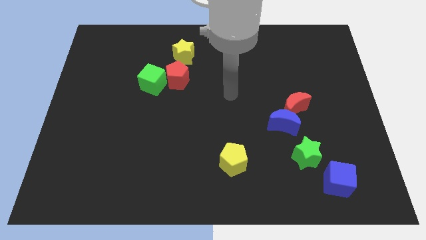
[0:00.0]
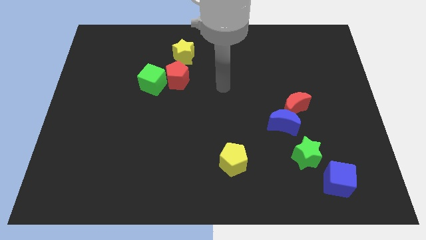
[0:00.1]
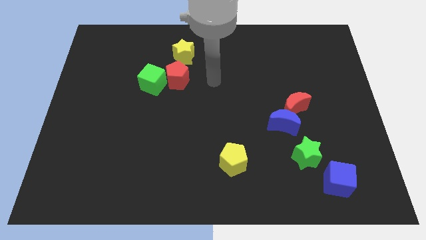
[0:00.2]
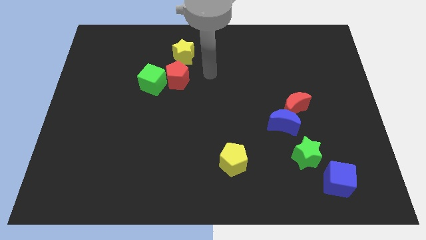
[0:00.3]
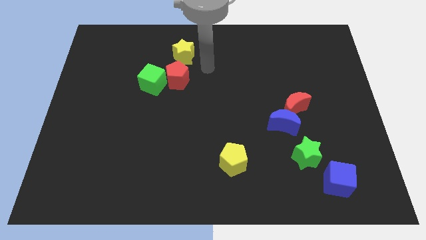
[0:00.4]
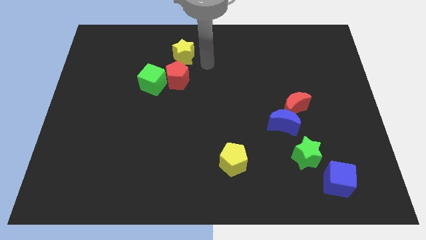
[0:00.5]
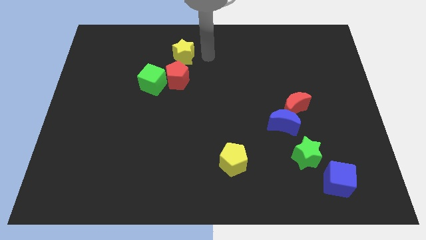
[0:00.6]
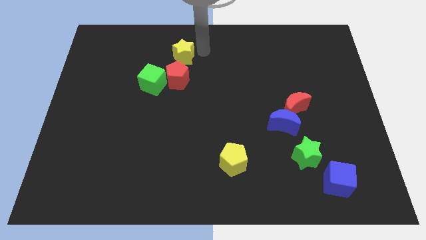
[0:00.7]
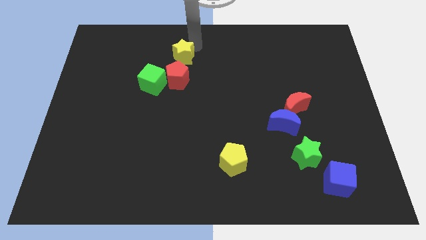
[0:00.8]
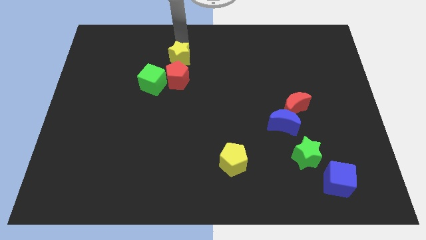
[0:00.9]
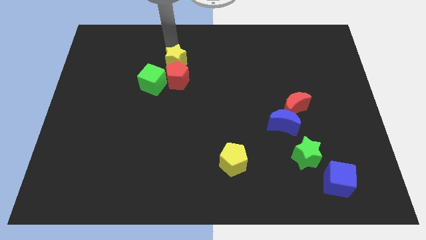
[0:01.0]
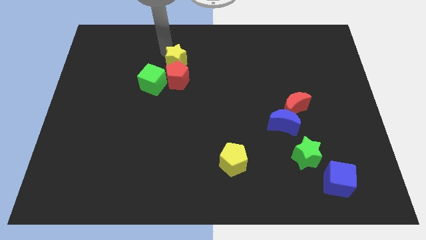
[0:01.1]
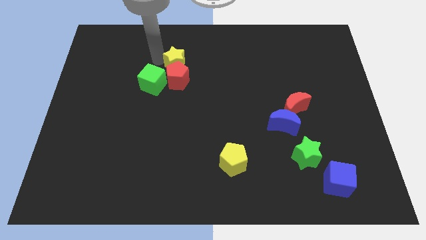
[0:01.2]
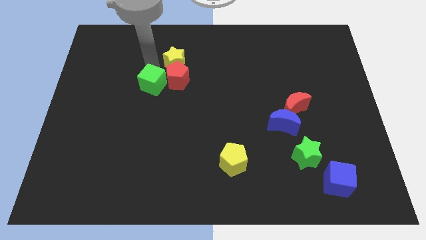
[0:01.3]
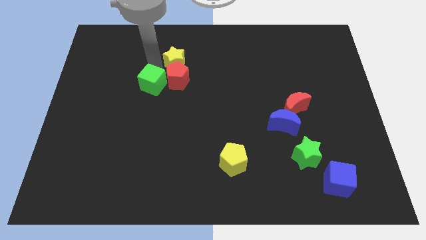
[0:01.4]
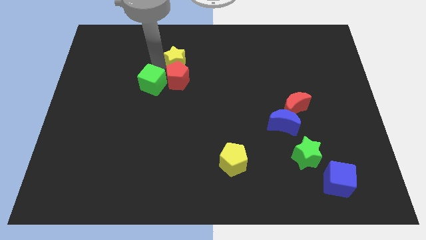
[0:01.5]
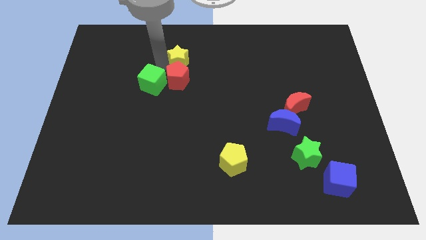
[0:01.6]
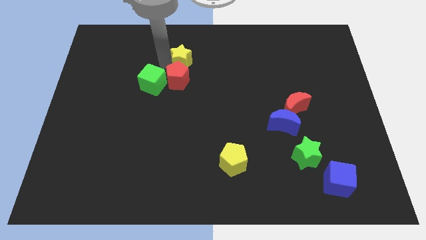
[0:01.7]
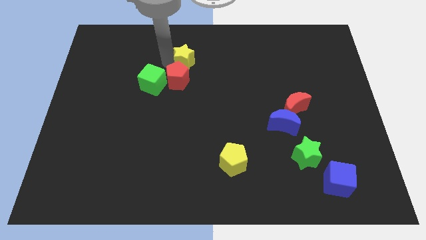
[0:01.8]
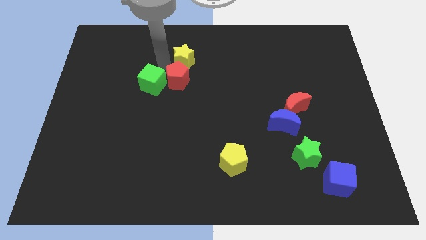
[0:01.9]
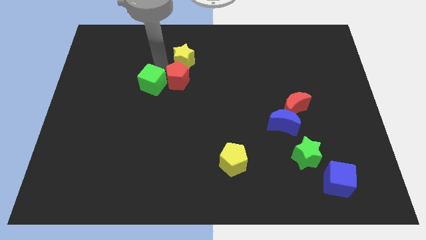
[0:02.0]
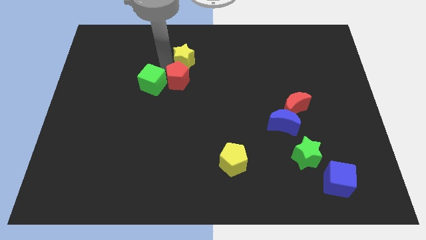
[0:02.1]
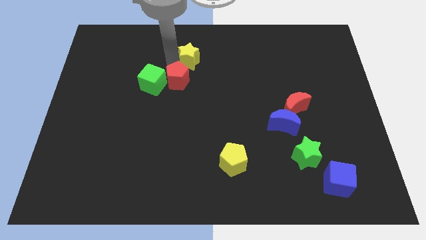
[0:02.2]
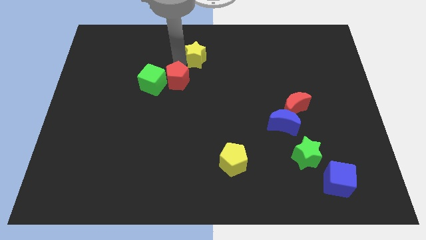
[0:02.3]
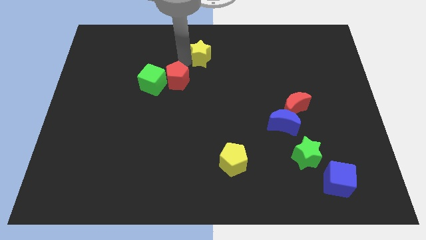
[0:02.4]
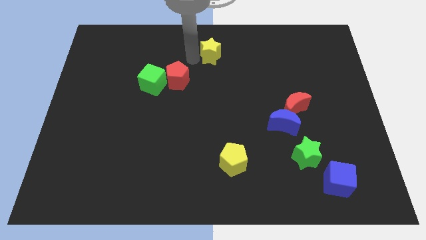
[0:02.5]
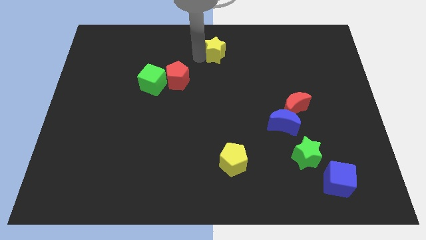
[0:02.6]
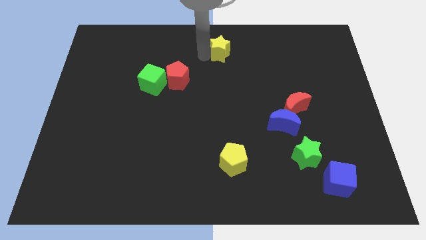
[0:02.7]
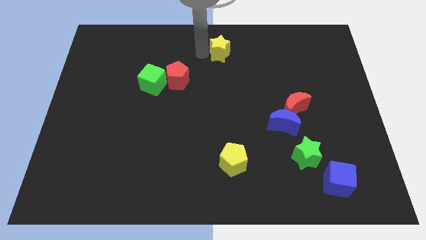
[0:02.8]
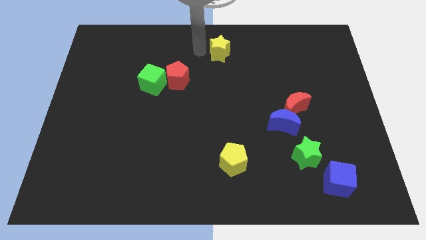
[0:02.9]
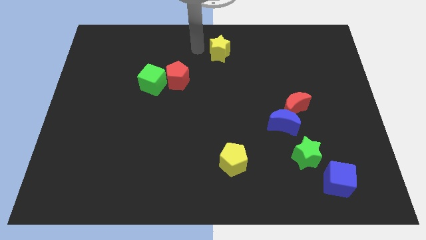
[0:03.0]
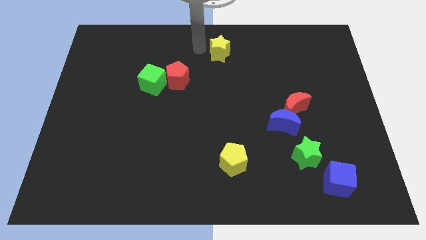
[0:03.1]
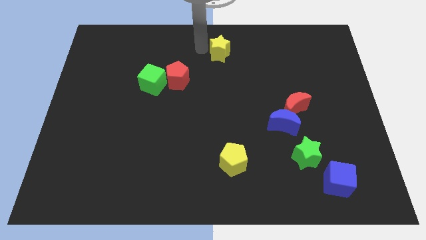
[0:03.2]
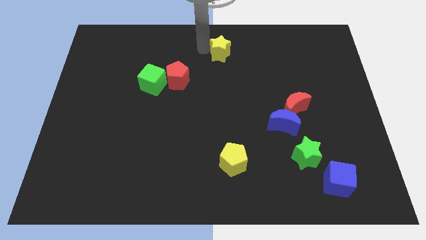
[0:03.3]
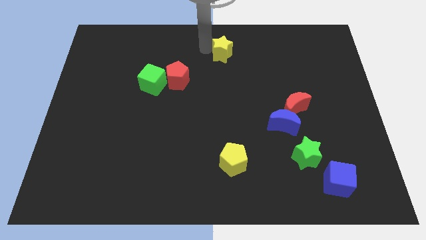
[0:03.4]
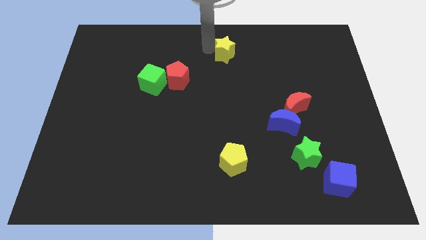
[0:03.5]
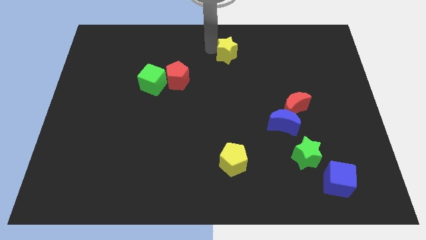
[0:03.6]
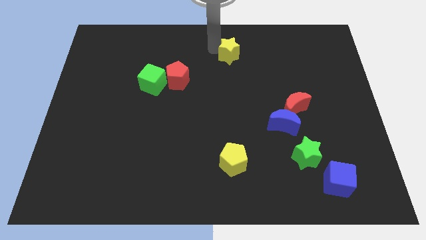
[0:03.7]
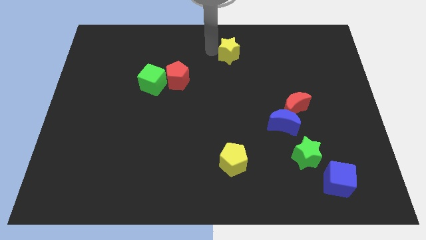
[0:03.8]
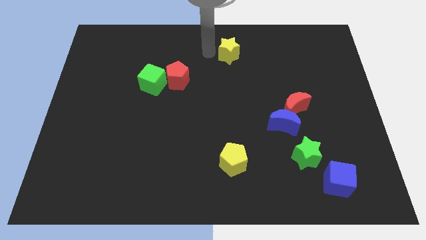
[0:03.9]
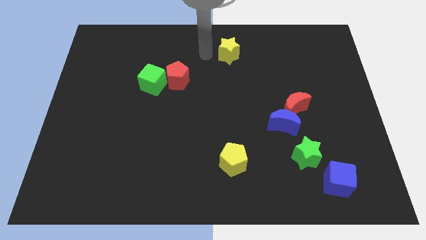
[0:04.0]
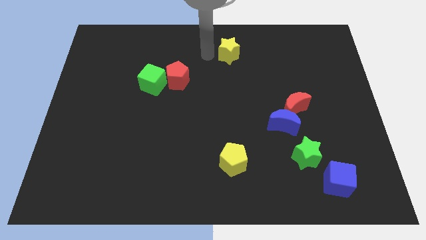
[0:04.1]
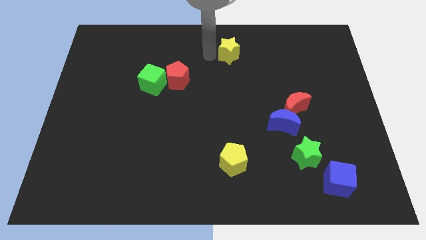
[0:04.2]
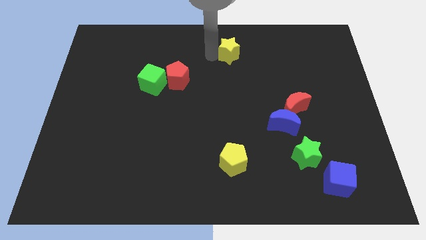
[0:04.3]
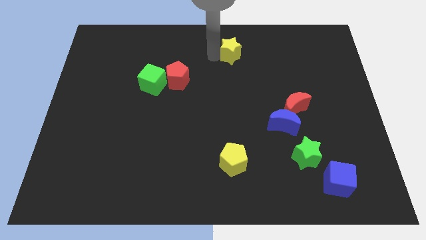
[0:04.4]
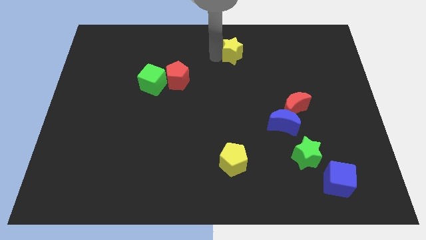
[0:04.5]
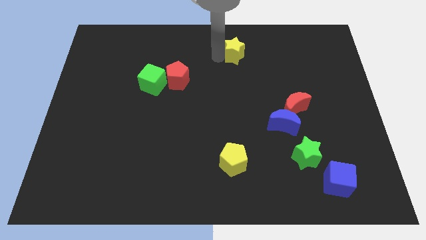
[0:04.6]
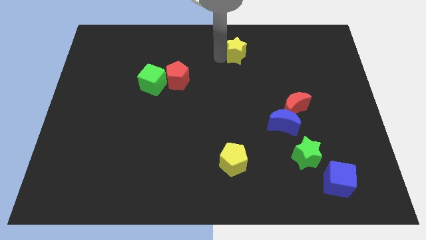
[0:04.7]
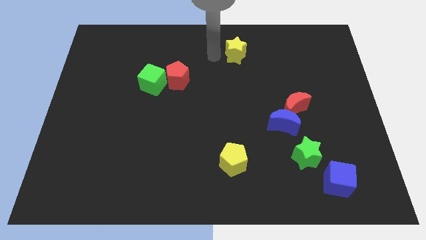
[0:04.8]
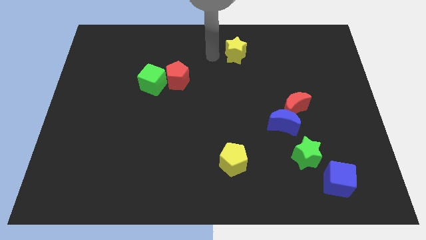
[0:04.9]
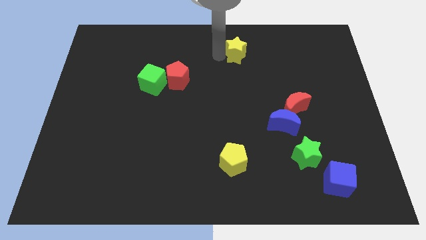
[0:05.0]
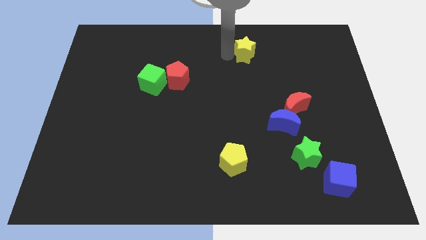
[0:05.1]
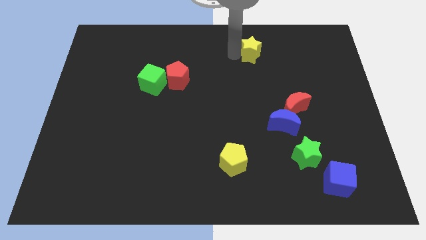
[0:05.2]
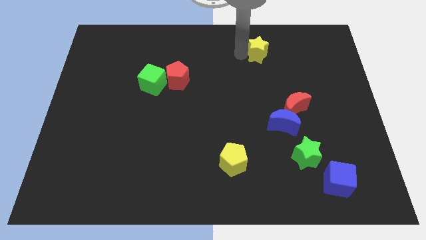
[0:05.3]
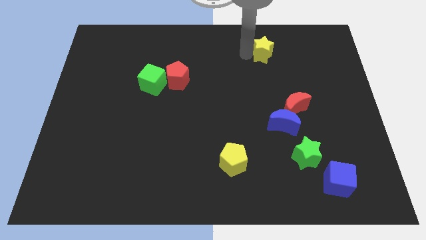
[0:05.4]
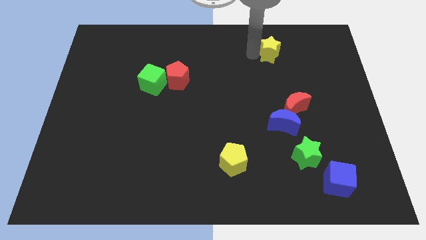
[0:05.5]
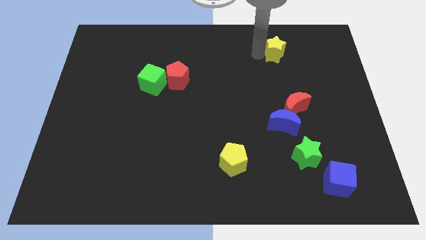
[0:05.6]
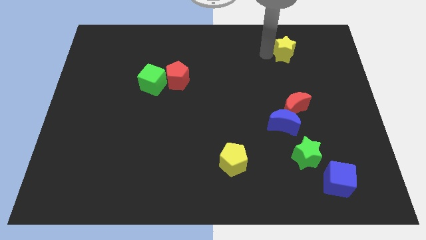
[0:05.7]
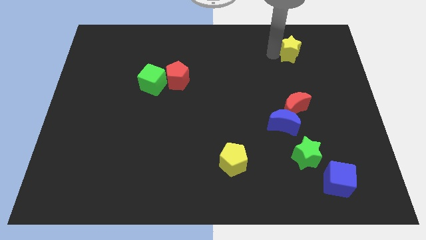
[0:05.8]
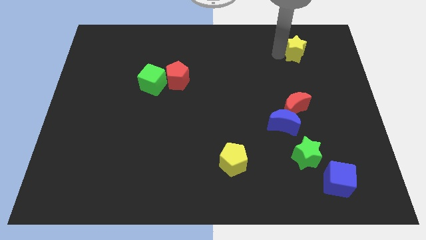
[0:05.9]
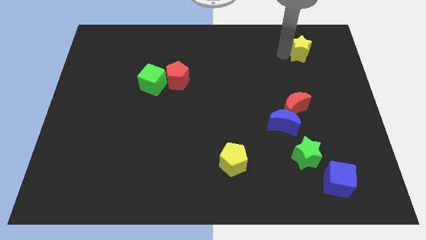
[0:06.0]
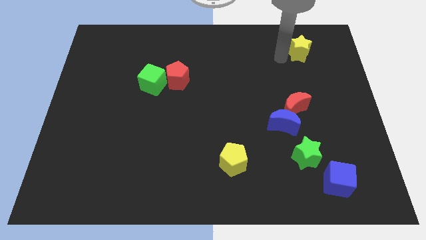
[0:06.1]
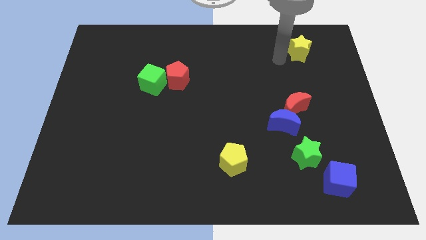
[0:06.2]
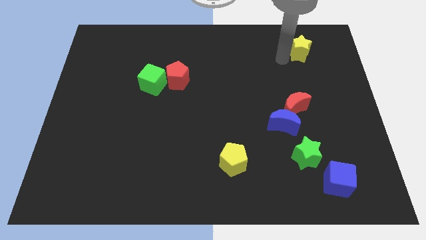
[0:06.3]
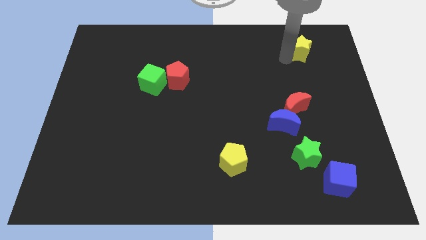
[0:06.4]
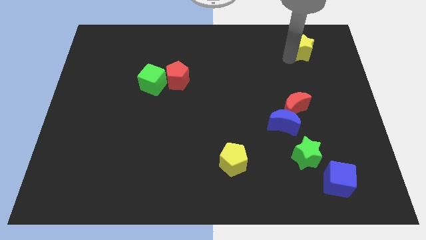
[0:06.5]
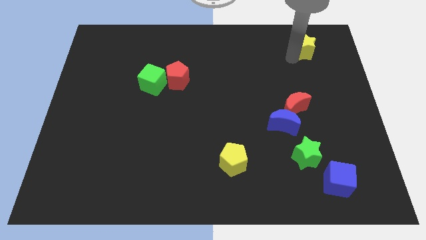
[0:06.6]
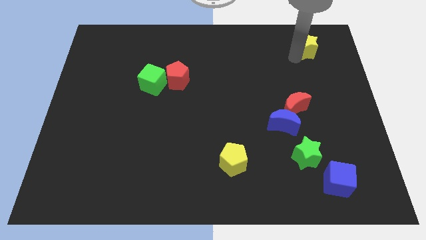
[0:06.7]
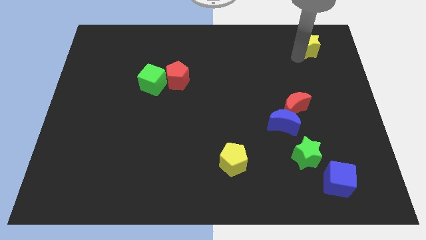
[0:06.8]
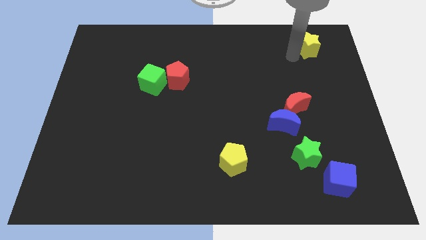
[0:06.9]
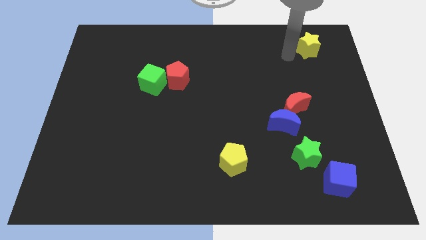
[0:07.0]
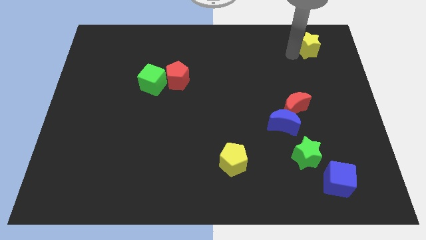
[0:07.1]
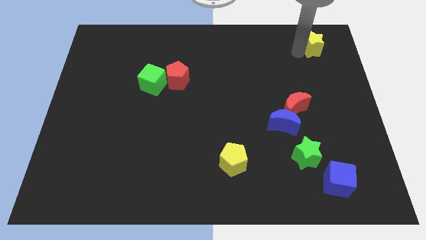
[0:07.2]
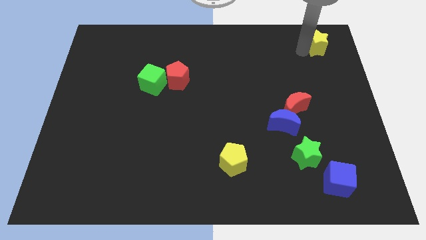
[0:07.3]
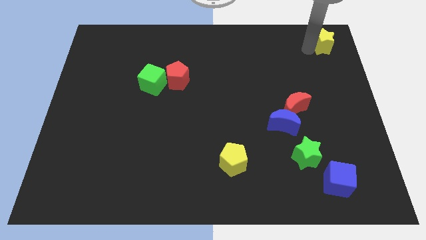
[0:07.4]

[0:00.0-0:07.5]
push the yellow star to the upper right corner
